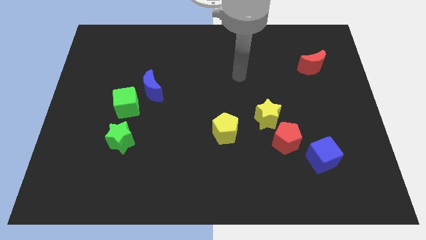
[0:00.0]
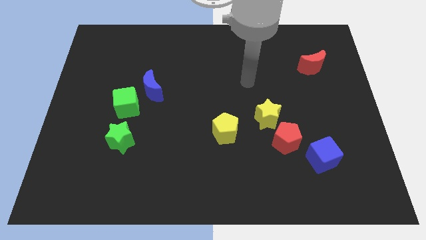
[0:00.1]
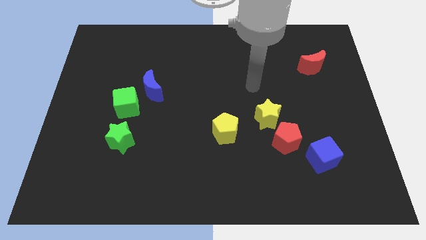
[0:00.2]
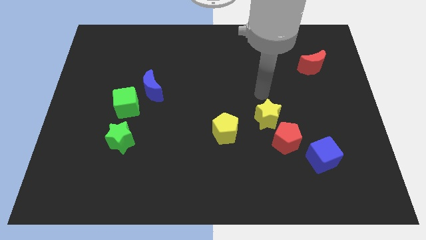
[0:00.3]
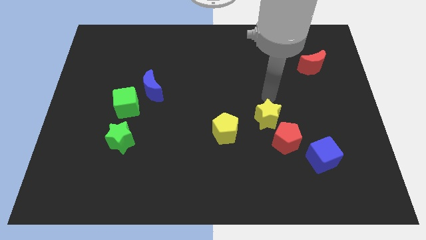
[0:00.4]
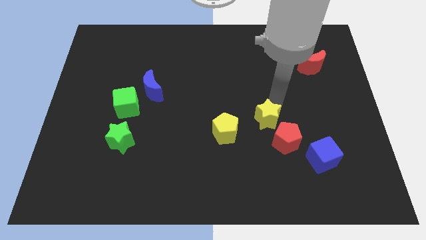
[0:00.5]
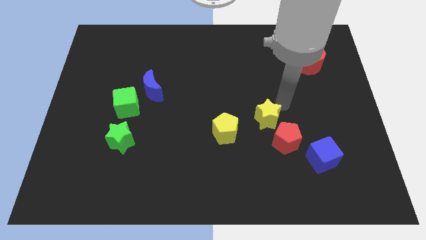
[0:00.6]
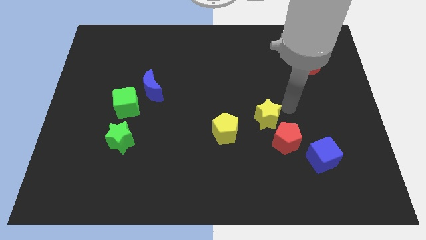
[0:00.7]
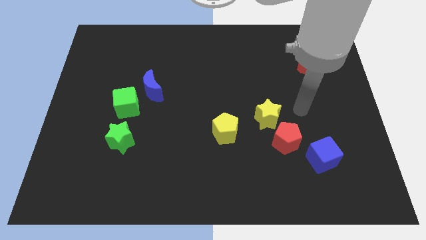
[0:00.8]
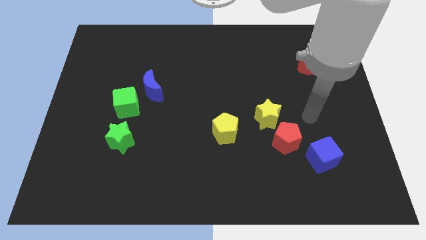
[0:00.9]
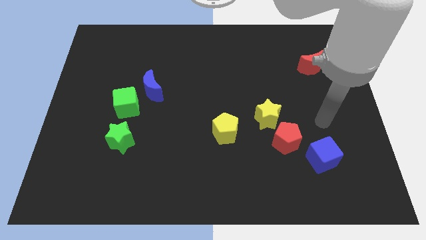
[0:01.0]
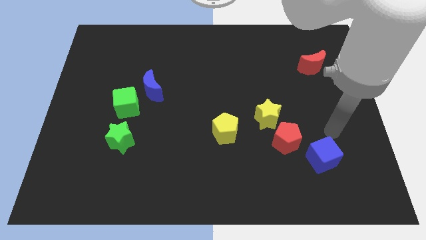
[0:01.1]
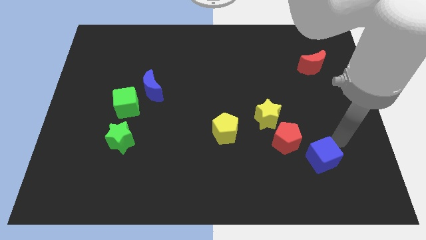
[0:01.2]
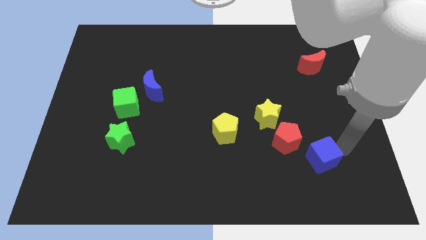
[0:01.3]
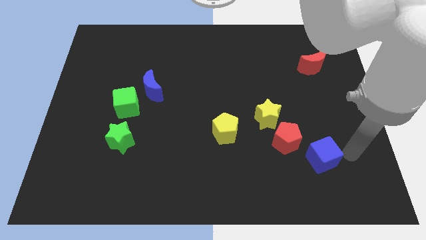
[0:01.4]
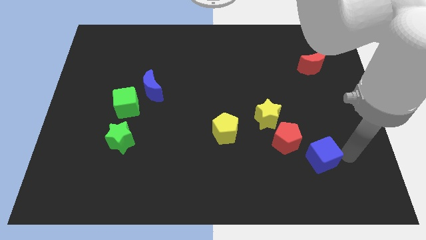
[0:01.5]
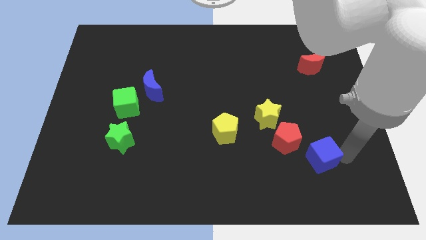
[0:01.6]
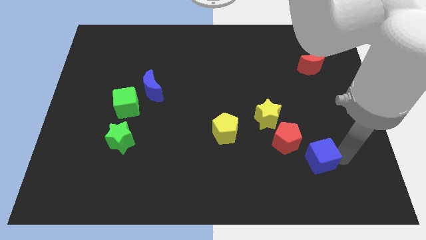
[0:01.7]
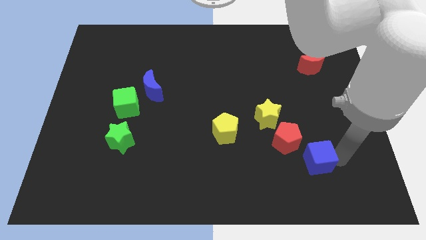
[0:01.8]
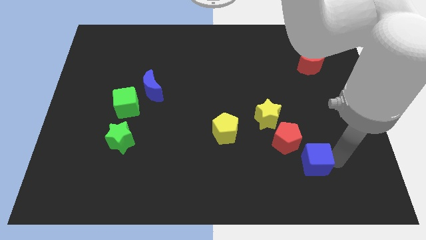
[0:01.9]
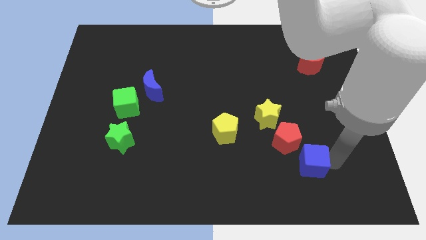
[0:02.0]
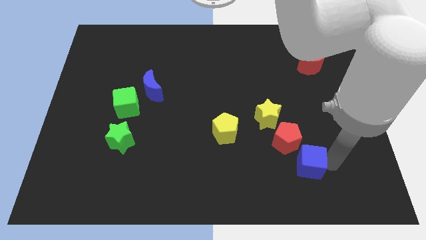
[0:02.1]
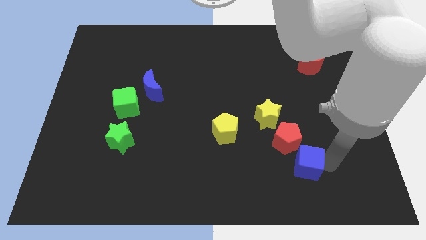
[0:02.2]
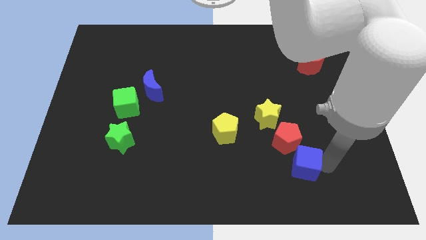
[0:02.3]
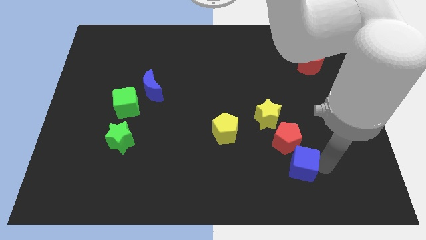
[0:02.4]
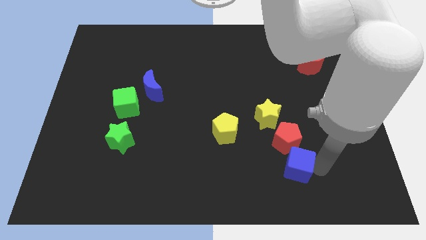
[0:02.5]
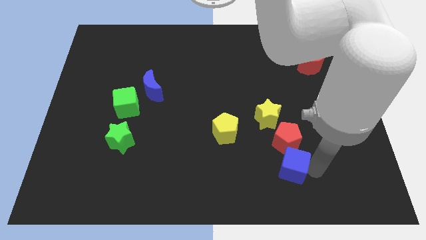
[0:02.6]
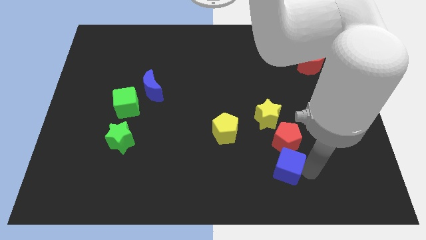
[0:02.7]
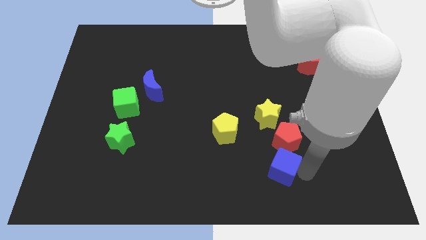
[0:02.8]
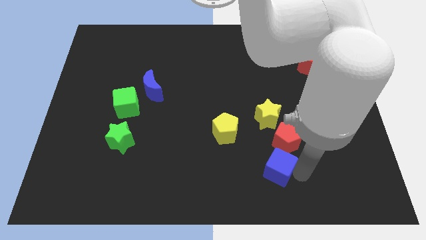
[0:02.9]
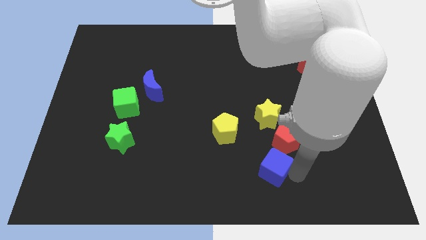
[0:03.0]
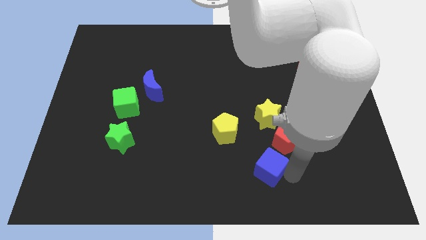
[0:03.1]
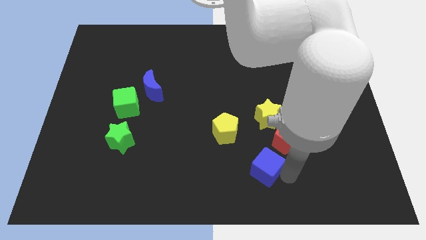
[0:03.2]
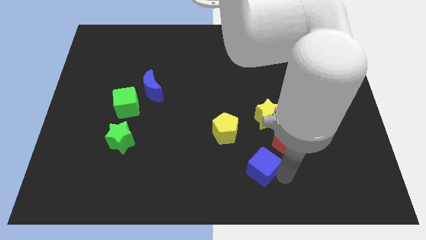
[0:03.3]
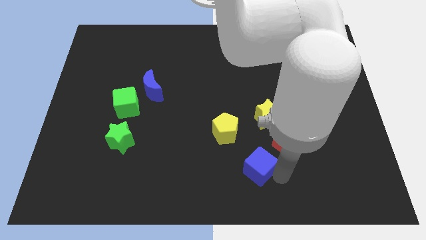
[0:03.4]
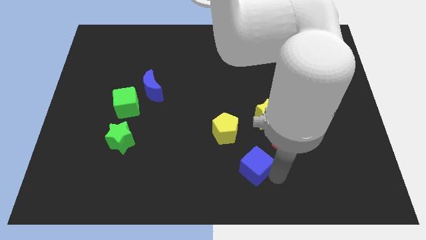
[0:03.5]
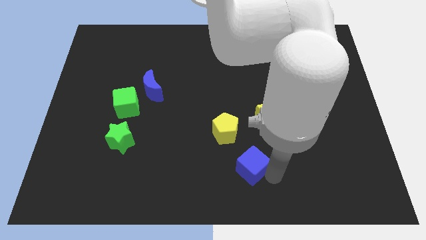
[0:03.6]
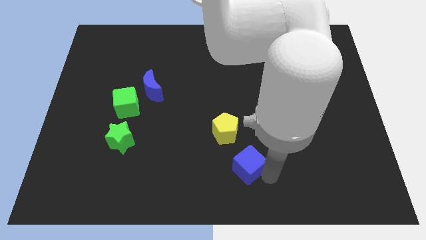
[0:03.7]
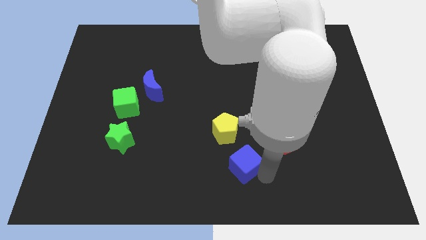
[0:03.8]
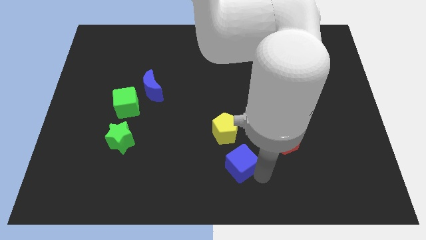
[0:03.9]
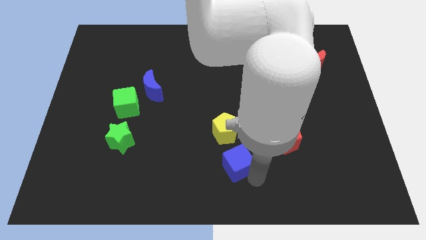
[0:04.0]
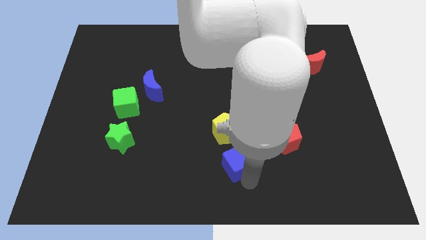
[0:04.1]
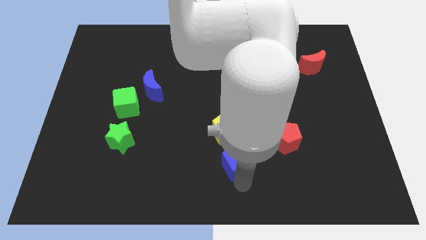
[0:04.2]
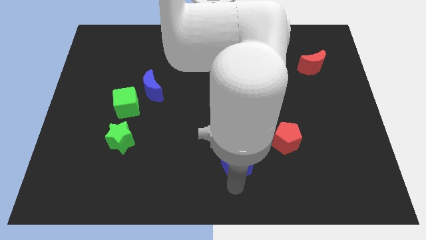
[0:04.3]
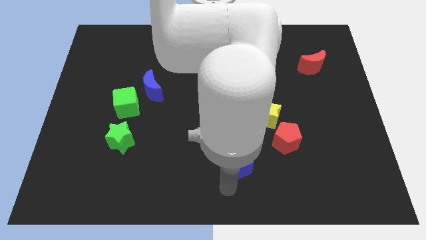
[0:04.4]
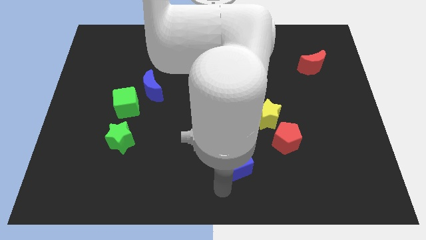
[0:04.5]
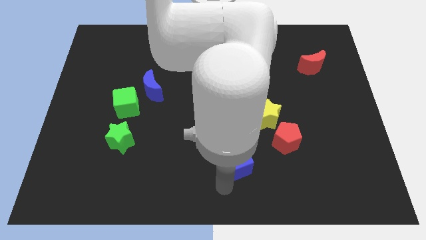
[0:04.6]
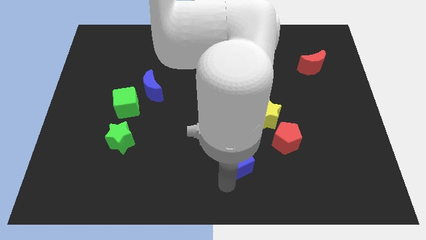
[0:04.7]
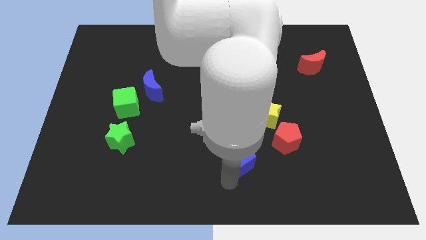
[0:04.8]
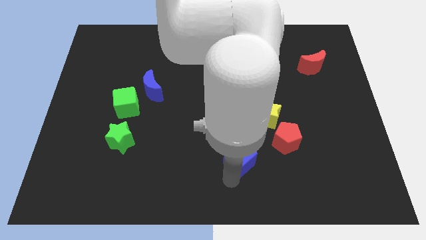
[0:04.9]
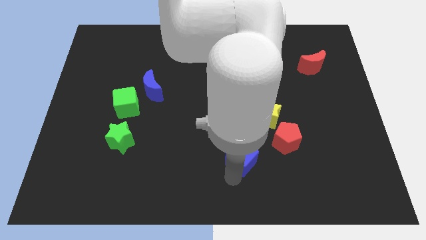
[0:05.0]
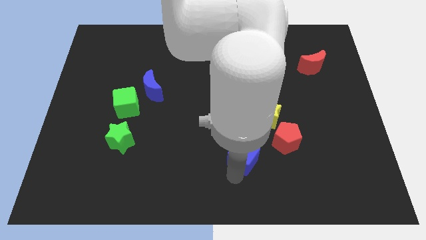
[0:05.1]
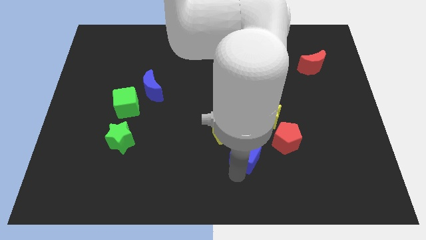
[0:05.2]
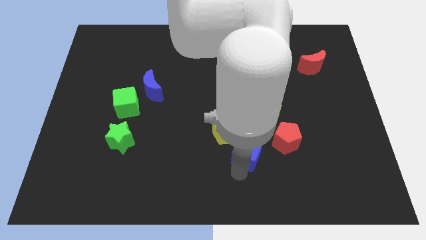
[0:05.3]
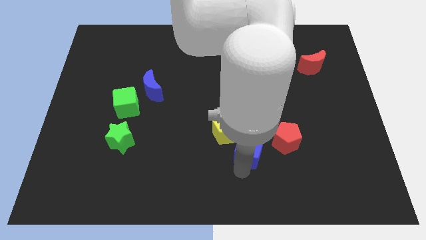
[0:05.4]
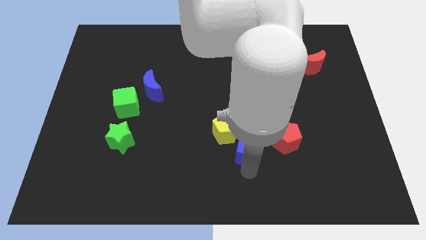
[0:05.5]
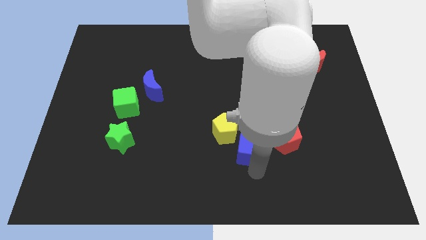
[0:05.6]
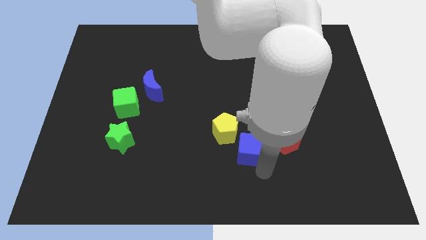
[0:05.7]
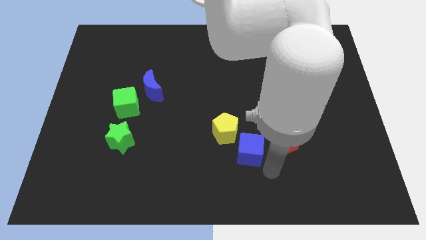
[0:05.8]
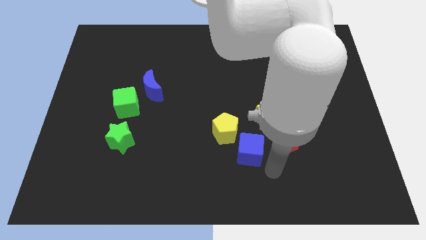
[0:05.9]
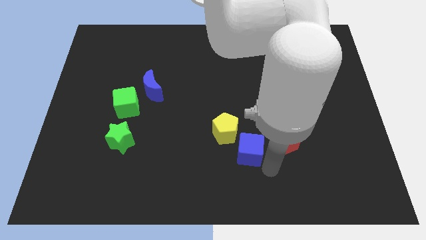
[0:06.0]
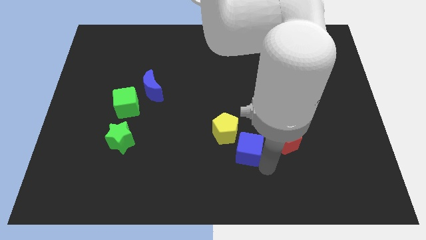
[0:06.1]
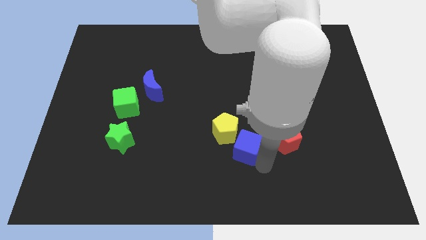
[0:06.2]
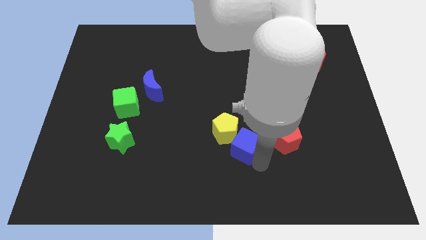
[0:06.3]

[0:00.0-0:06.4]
put the blue cube to the yellow pentagon

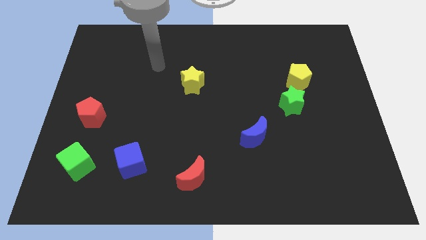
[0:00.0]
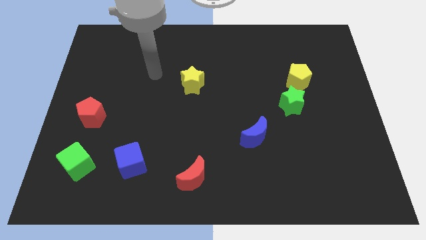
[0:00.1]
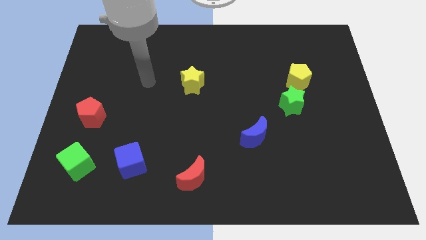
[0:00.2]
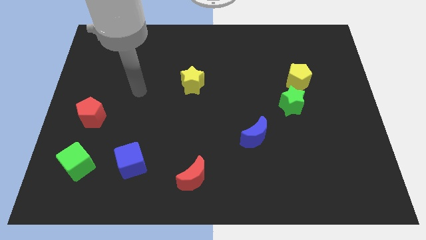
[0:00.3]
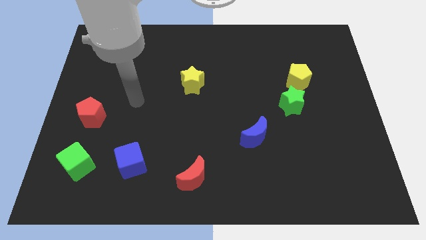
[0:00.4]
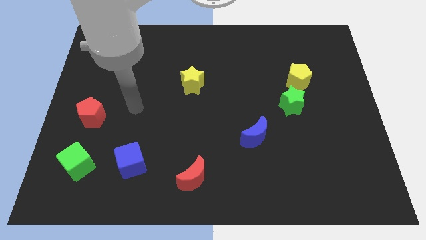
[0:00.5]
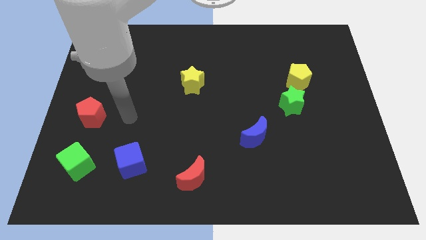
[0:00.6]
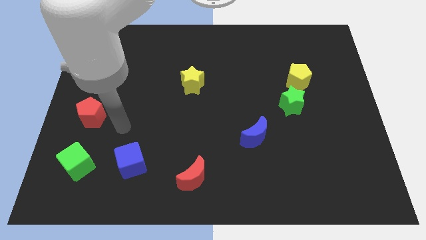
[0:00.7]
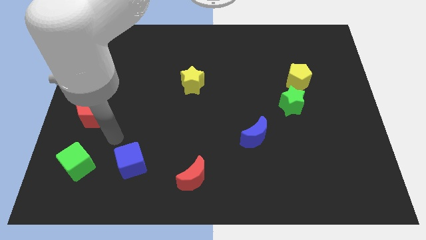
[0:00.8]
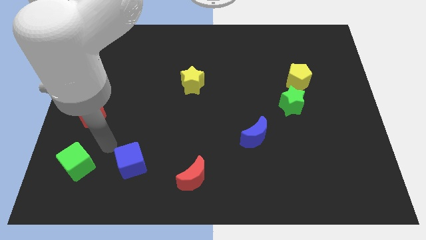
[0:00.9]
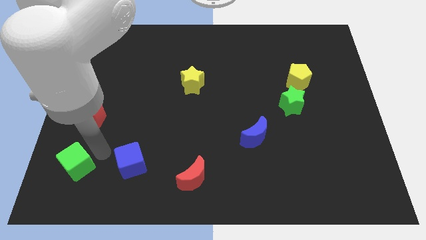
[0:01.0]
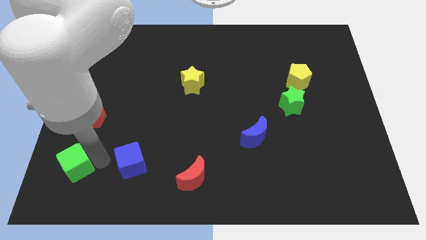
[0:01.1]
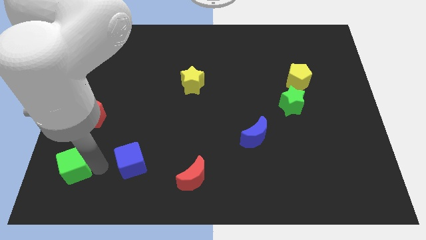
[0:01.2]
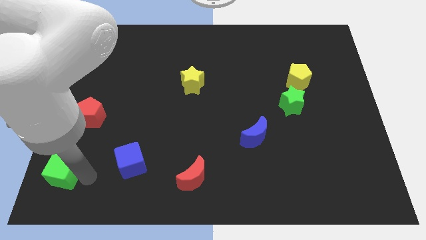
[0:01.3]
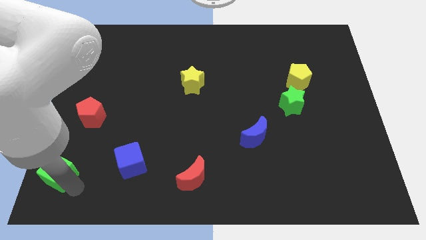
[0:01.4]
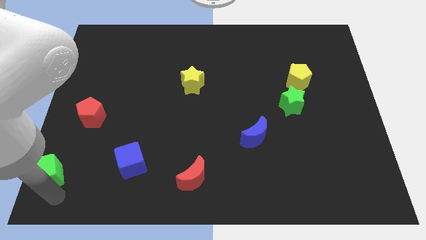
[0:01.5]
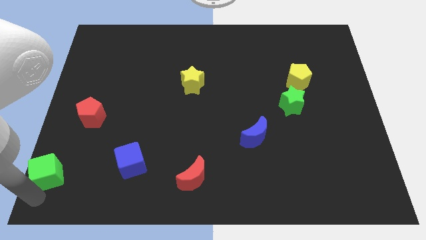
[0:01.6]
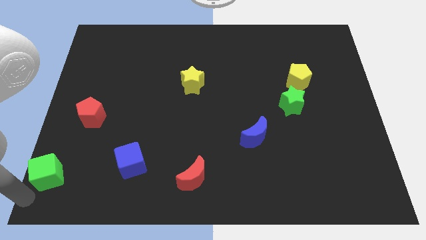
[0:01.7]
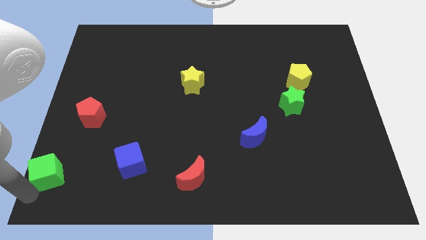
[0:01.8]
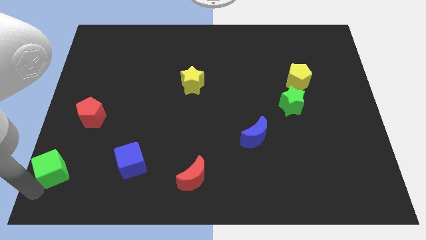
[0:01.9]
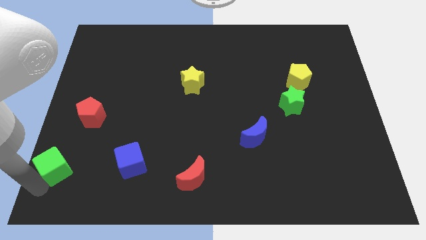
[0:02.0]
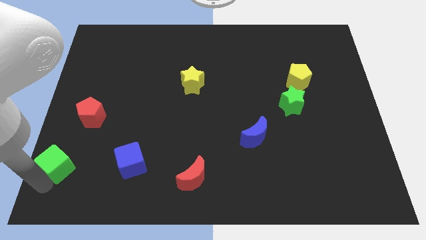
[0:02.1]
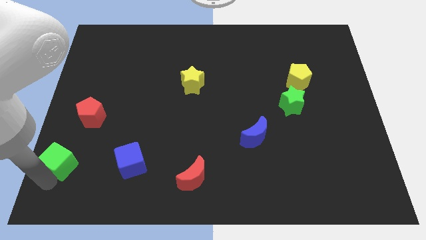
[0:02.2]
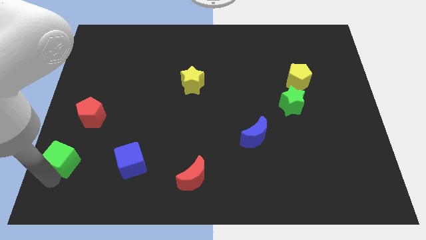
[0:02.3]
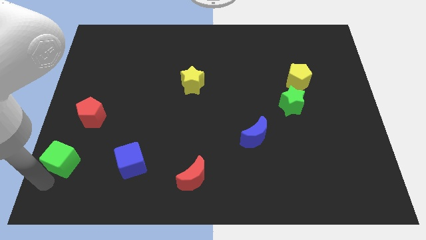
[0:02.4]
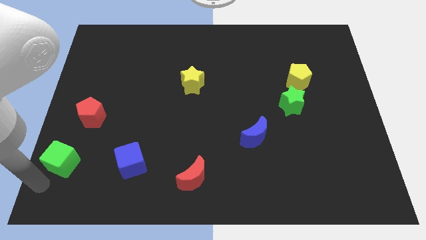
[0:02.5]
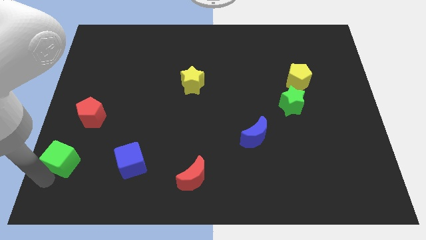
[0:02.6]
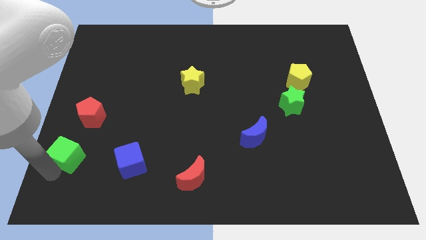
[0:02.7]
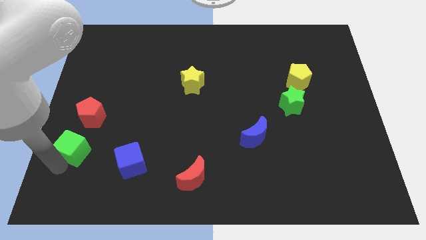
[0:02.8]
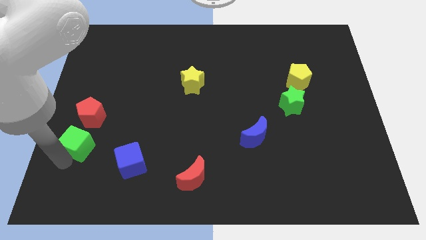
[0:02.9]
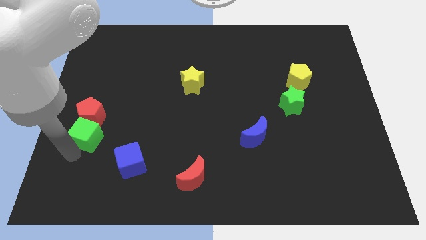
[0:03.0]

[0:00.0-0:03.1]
push the green cube towards the red pentagon
